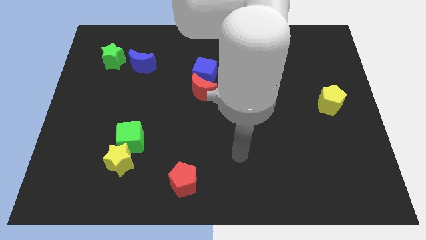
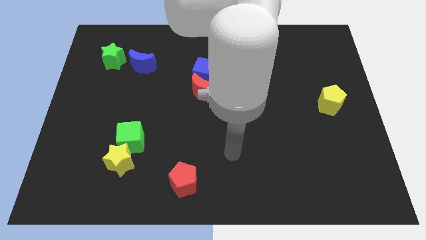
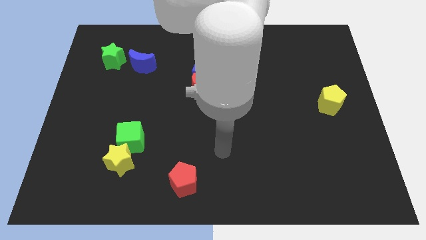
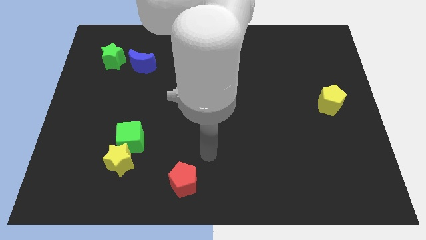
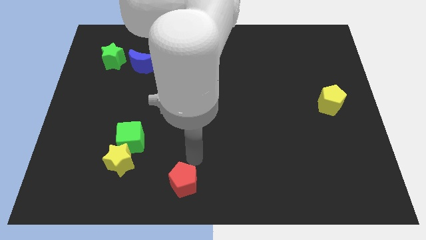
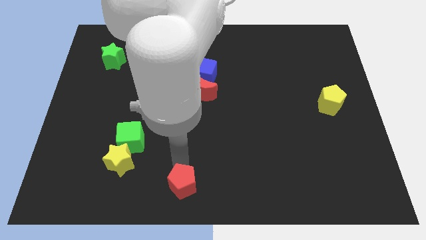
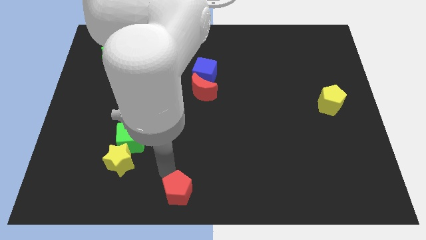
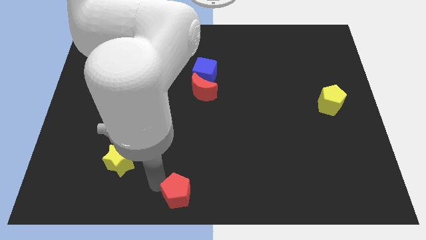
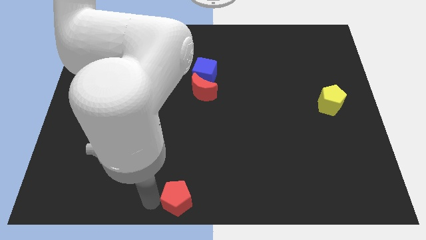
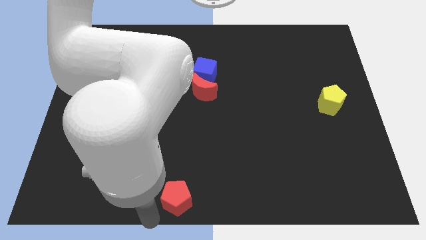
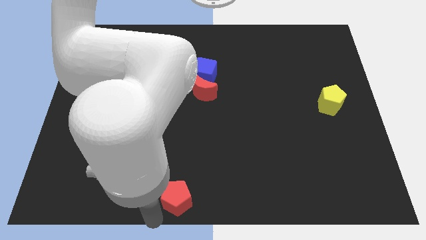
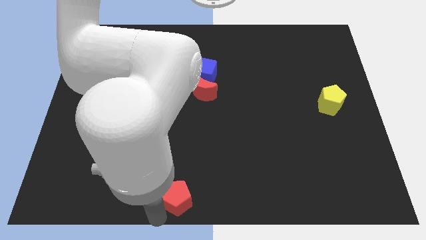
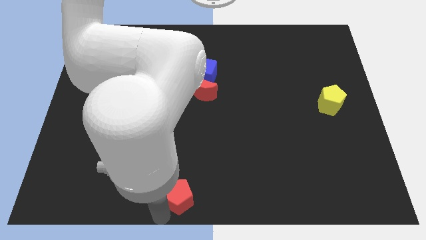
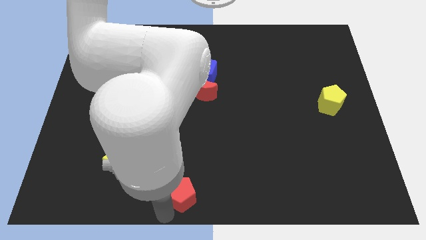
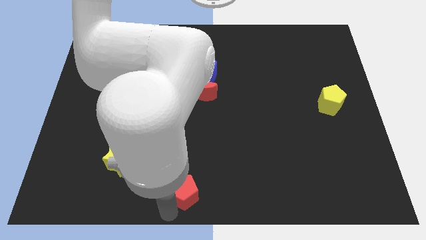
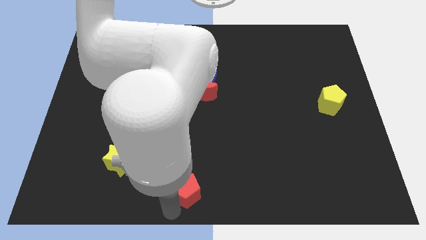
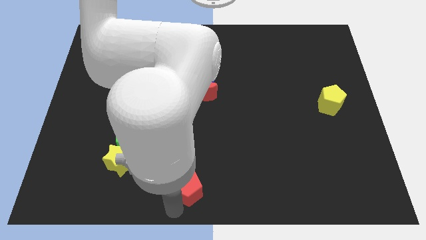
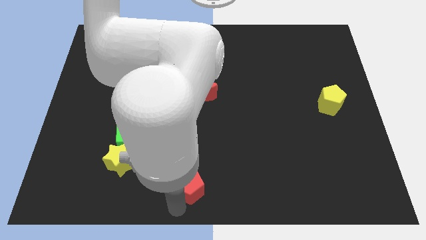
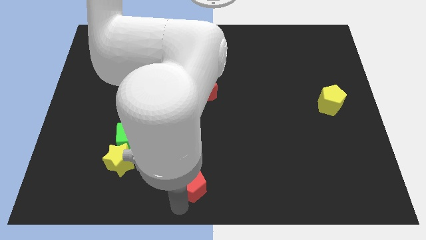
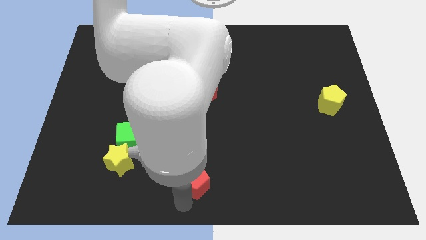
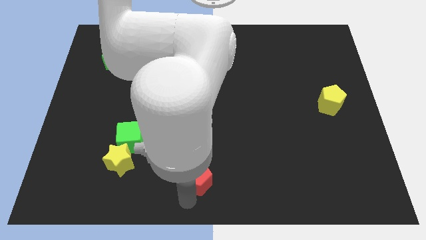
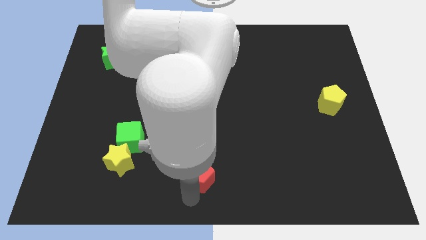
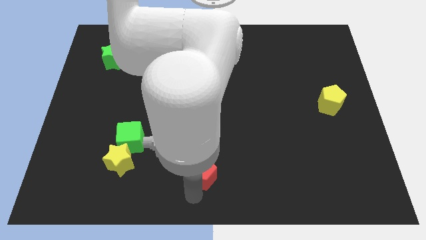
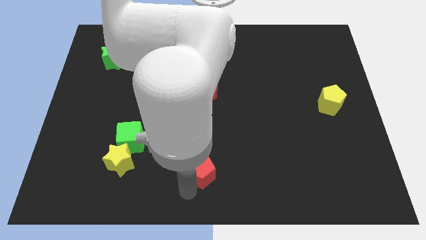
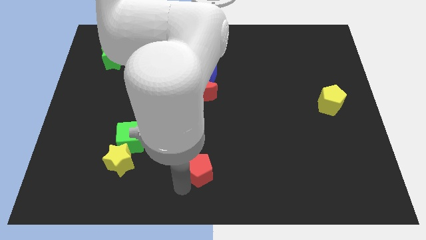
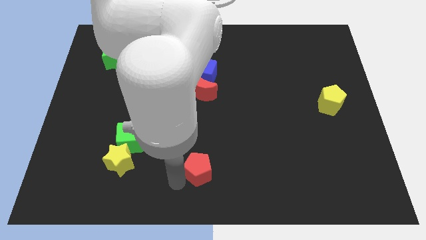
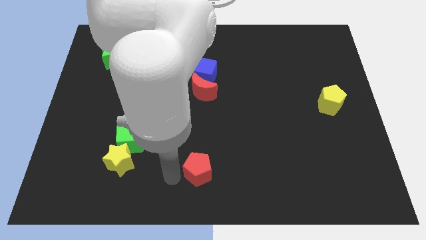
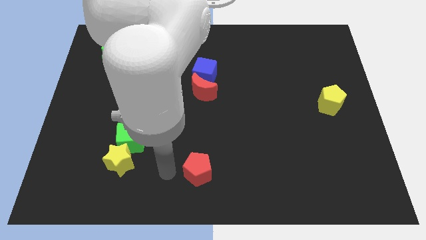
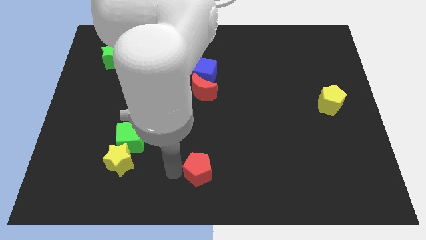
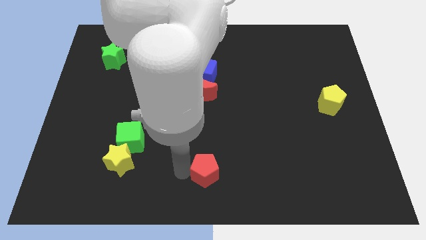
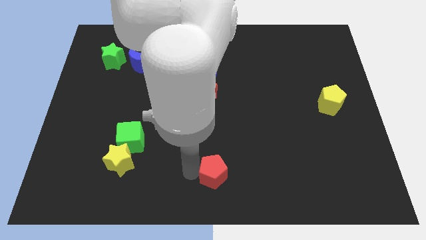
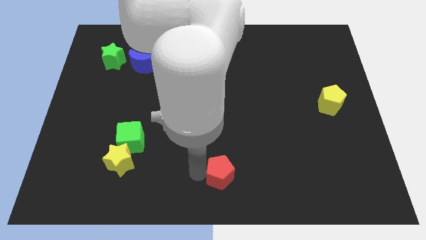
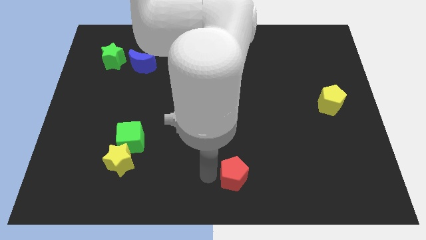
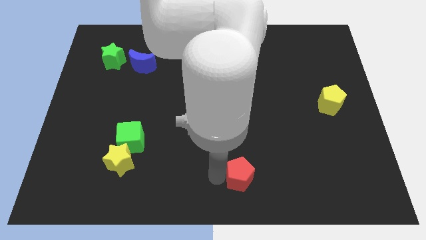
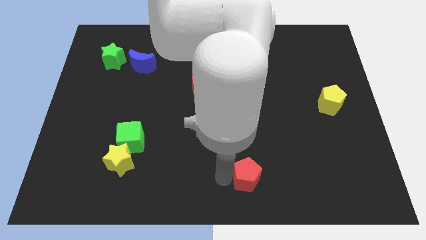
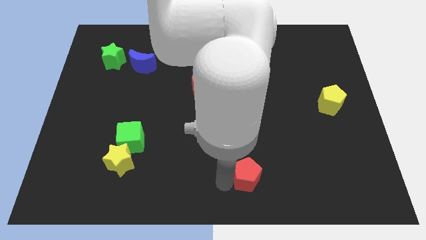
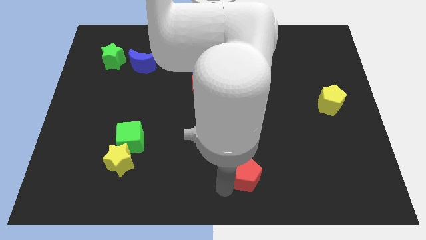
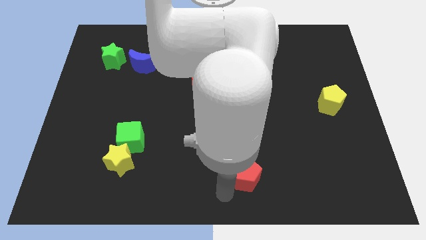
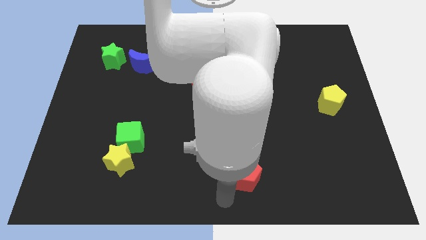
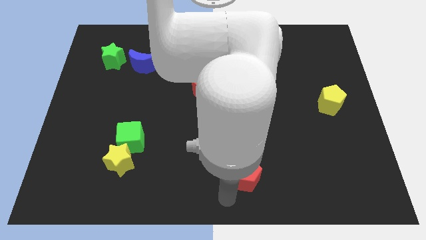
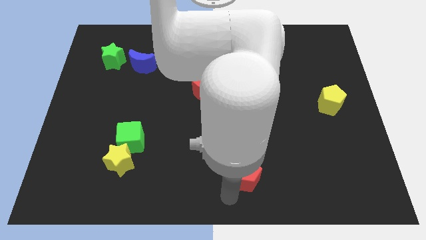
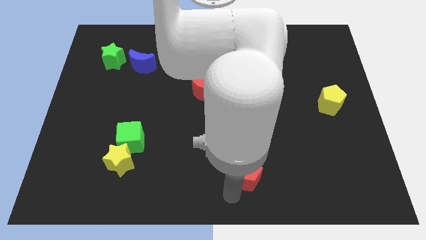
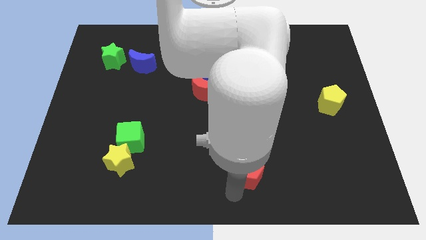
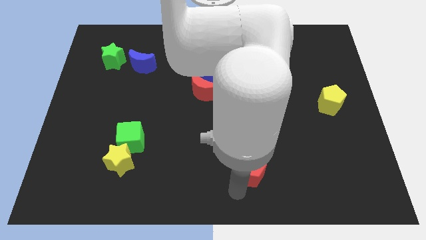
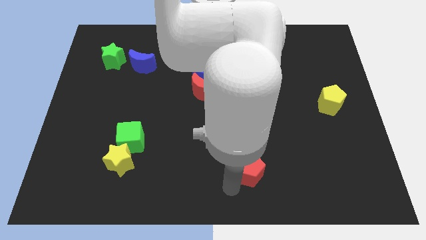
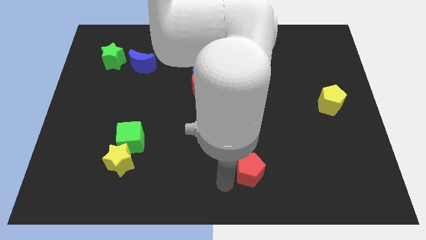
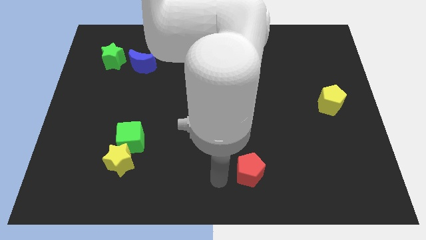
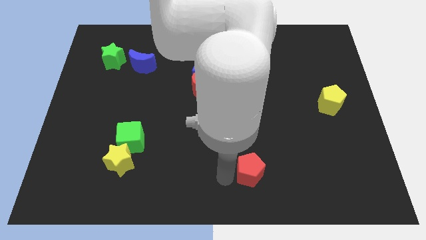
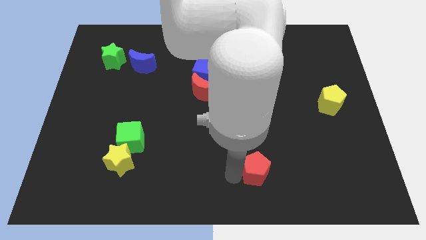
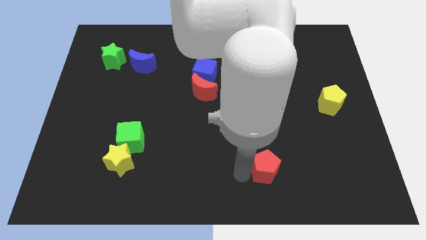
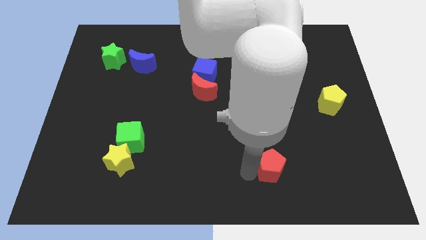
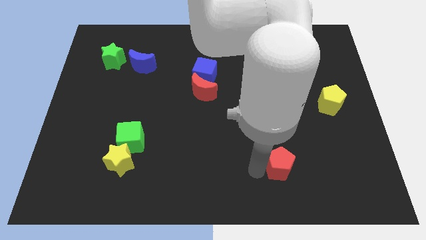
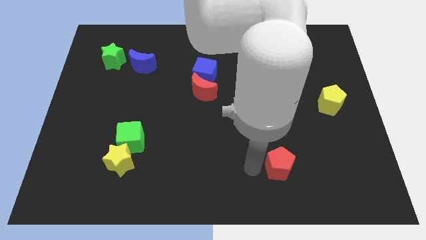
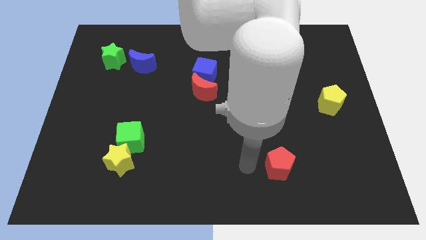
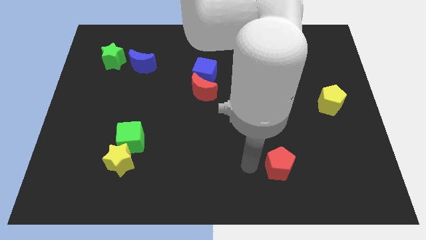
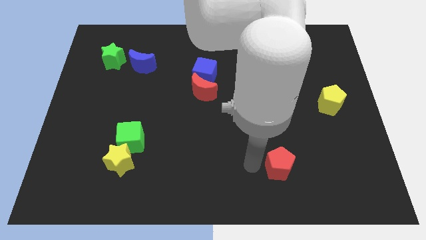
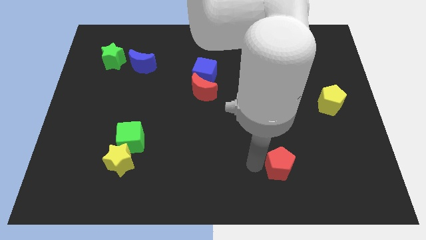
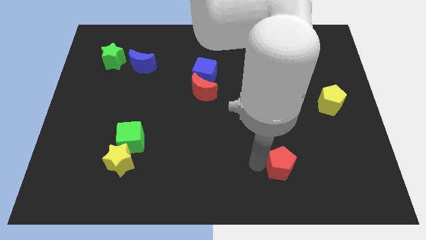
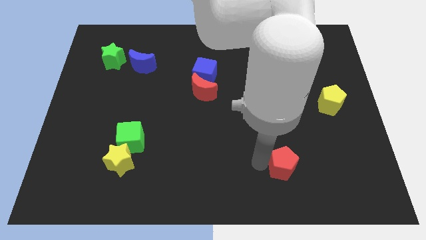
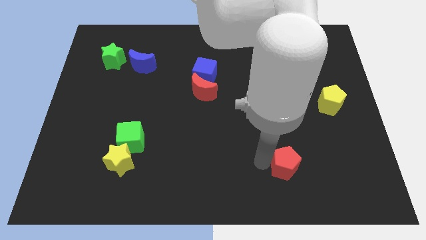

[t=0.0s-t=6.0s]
move the red pentagon to the right

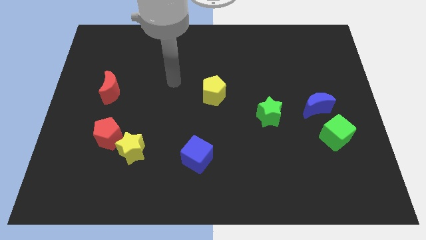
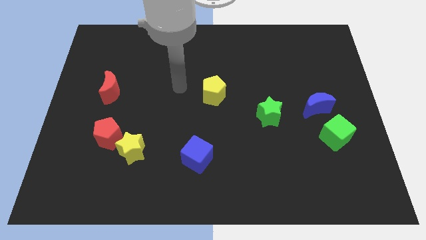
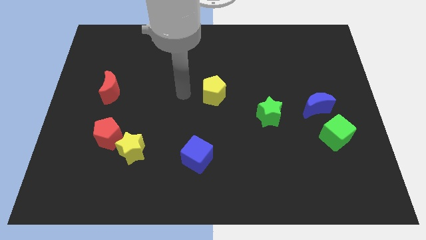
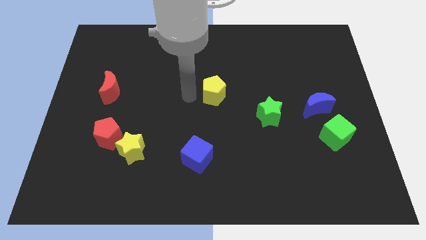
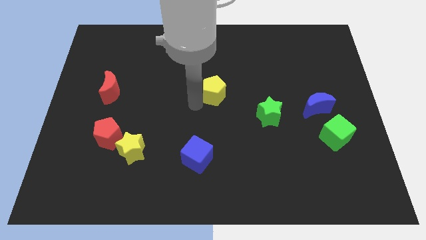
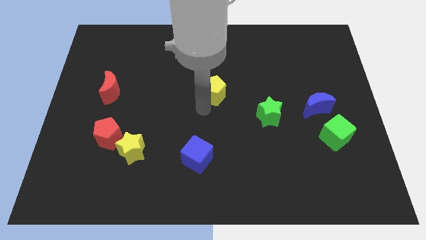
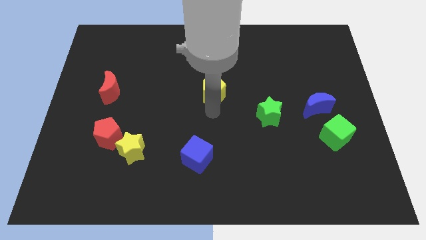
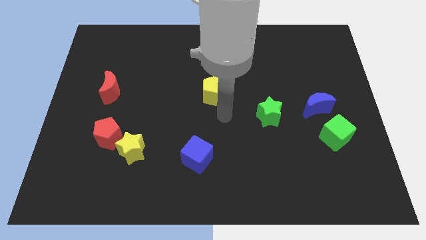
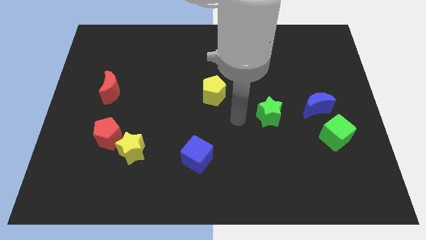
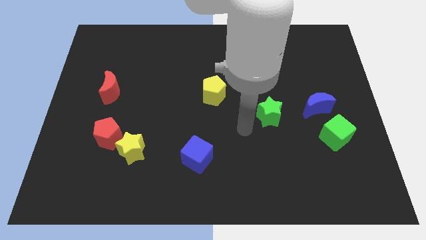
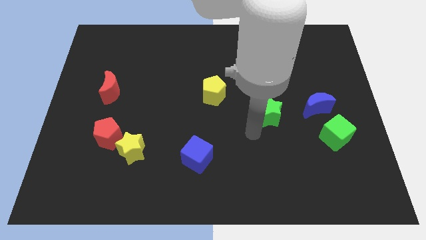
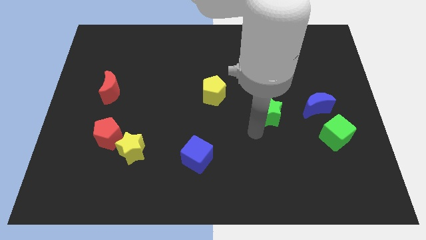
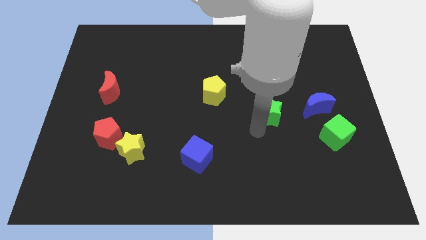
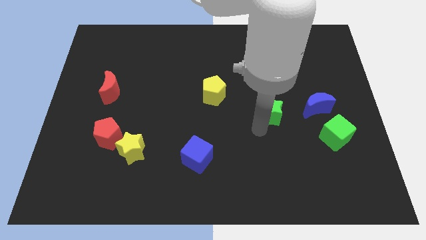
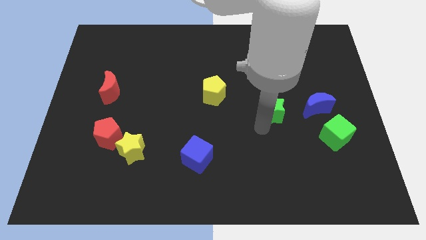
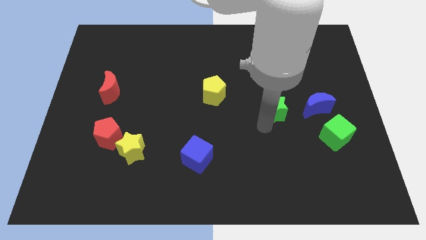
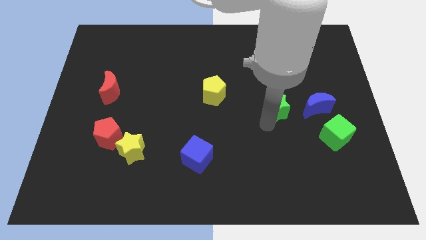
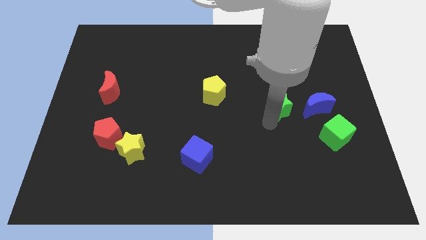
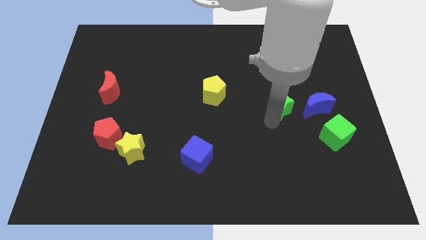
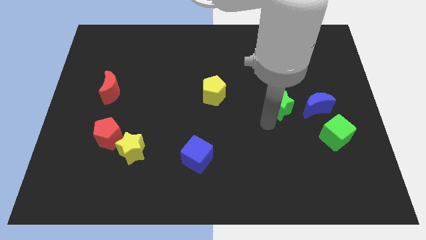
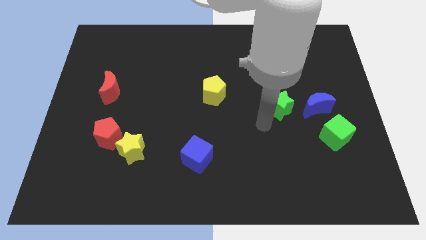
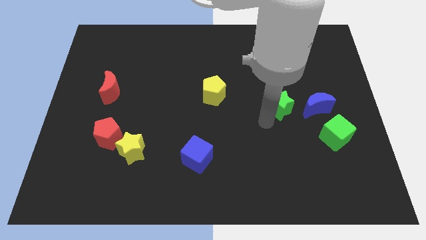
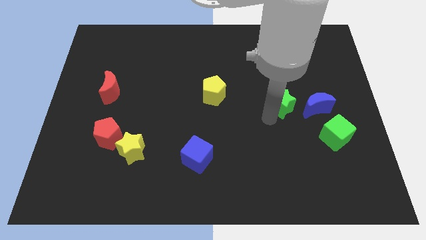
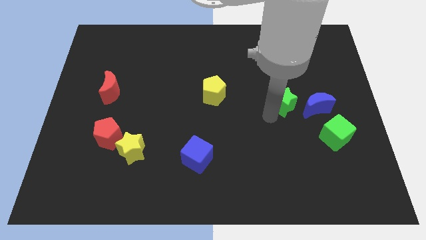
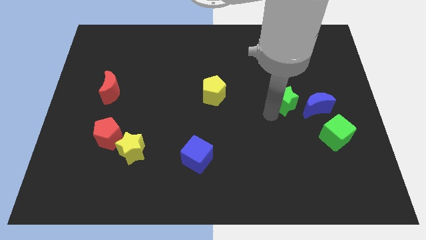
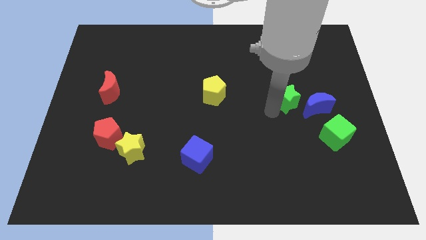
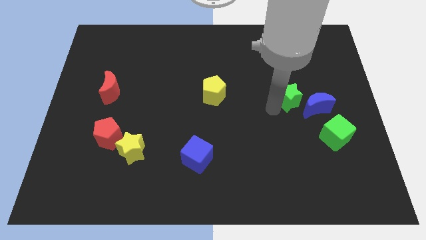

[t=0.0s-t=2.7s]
push the green star upwards and to the right a little bit
